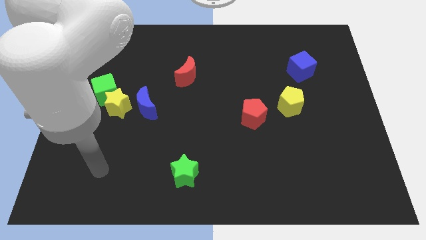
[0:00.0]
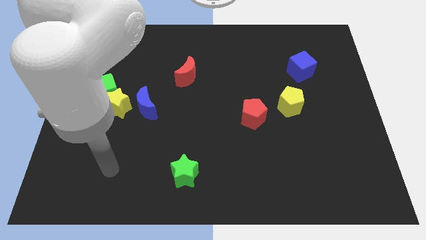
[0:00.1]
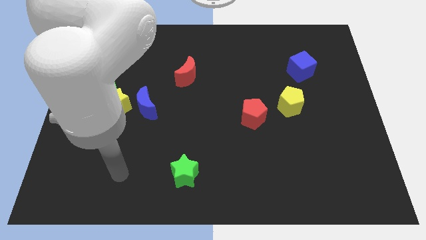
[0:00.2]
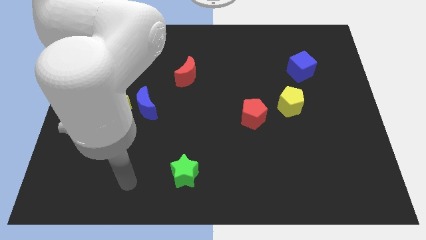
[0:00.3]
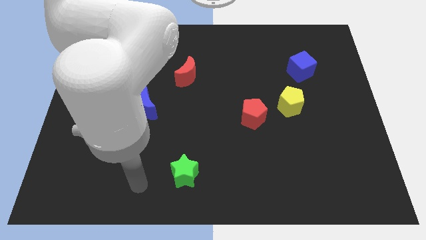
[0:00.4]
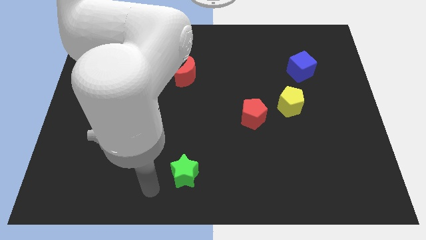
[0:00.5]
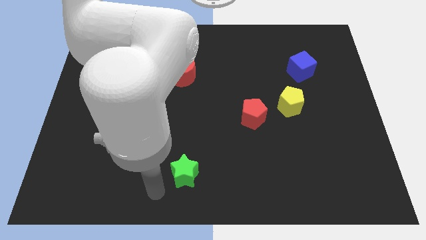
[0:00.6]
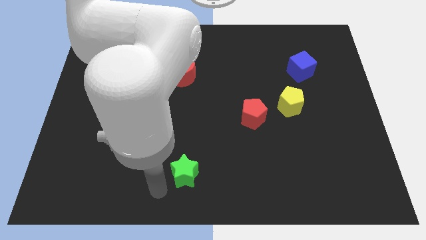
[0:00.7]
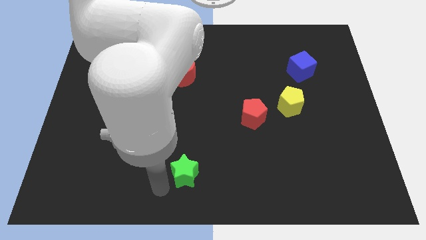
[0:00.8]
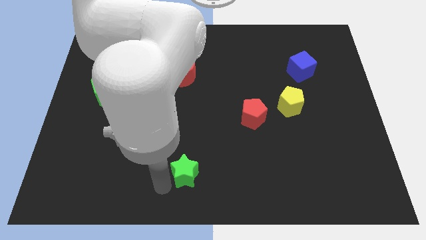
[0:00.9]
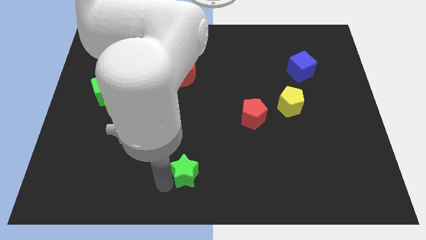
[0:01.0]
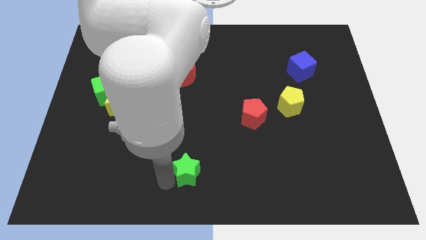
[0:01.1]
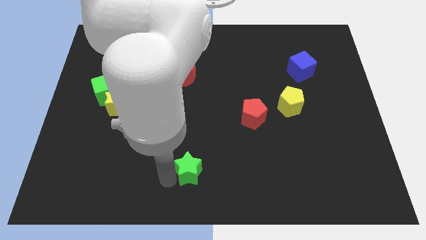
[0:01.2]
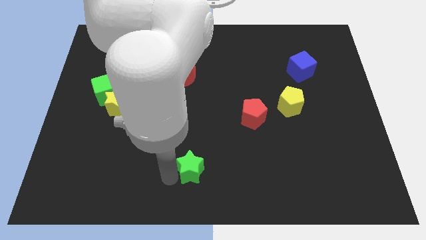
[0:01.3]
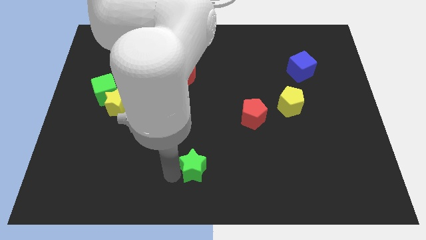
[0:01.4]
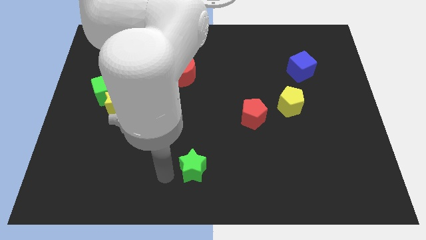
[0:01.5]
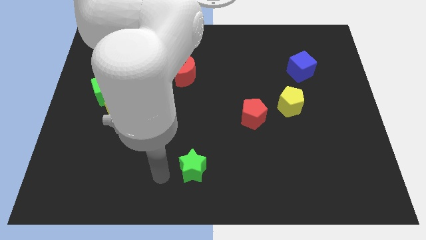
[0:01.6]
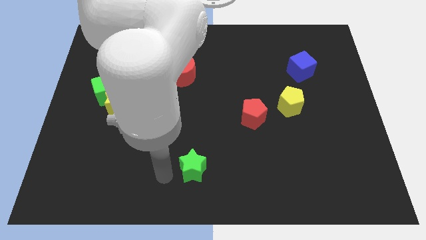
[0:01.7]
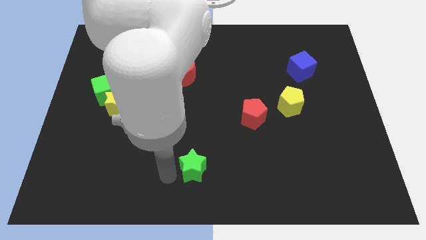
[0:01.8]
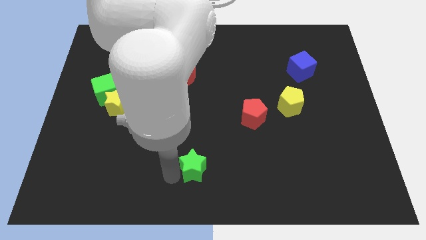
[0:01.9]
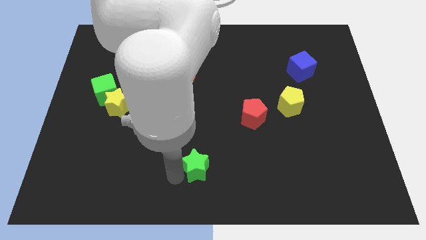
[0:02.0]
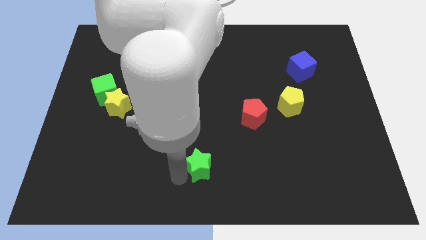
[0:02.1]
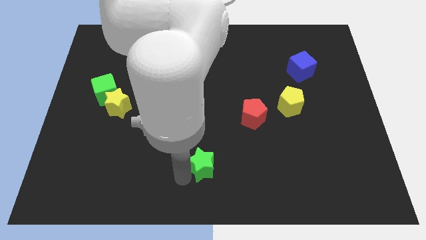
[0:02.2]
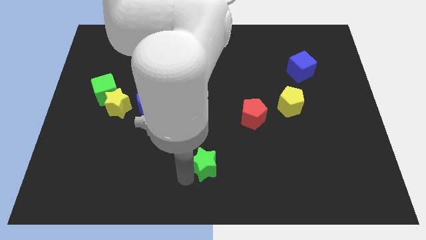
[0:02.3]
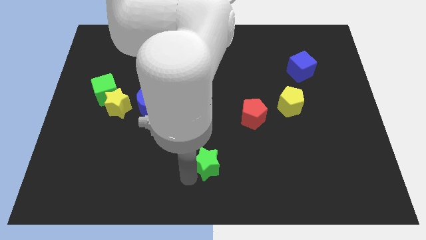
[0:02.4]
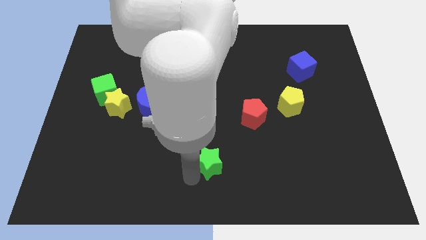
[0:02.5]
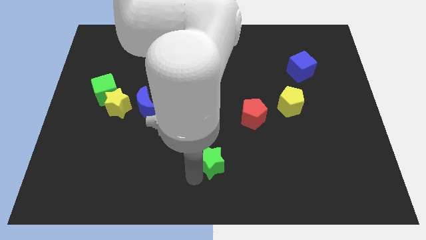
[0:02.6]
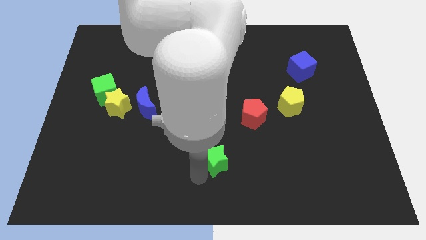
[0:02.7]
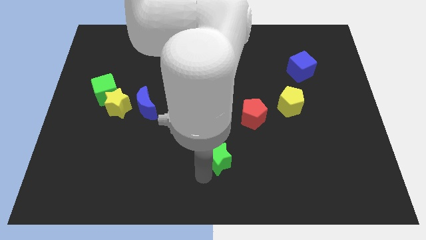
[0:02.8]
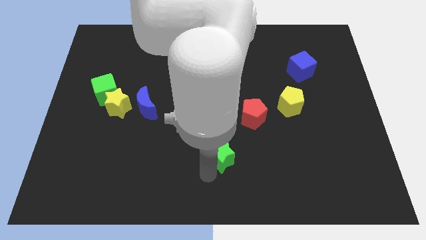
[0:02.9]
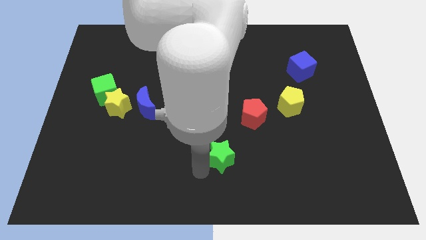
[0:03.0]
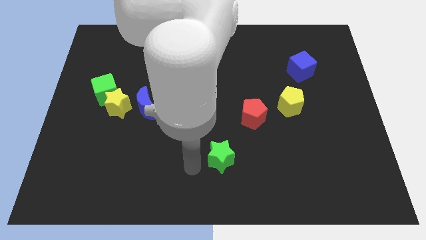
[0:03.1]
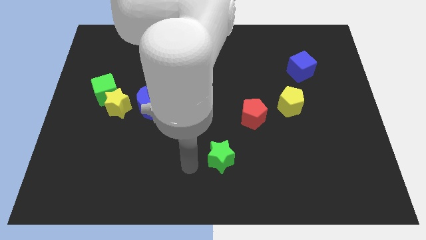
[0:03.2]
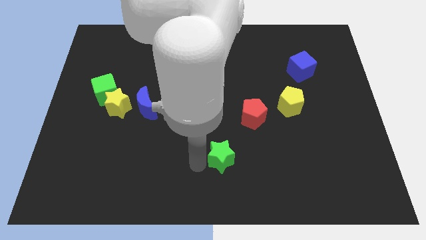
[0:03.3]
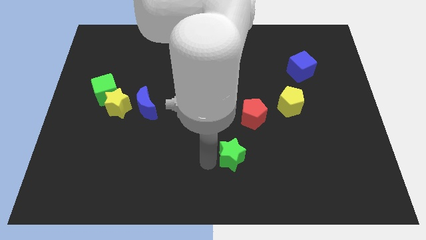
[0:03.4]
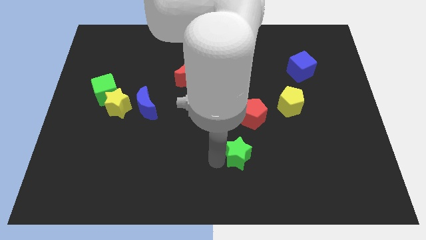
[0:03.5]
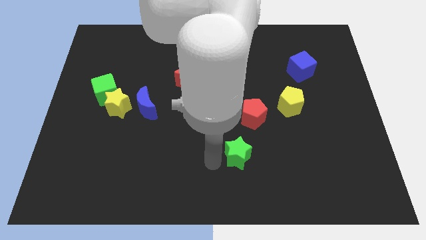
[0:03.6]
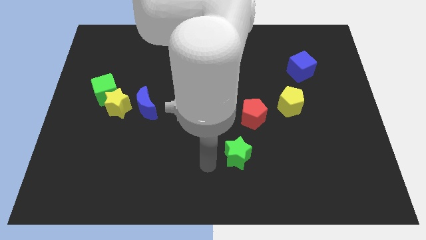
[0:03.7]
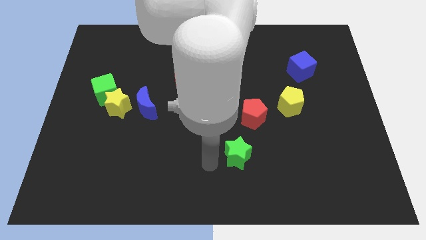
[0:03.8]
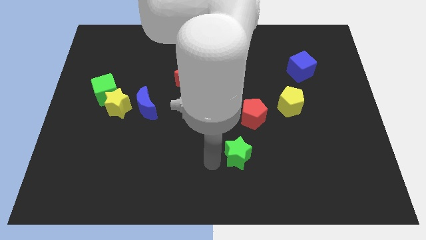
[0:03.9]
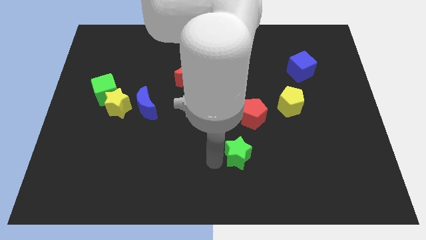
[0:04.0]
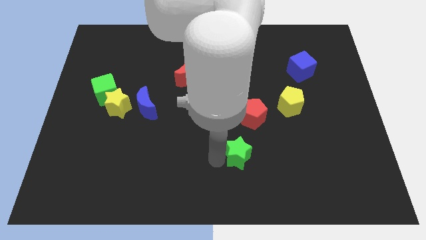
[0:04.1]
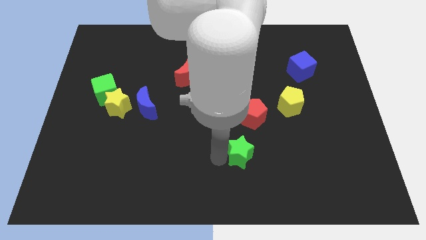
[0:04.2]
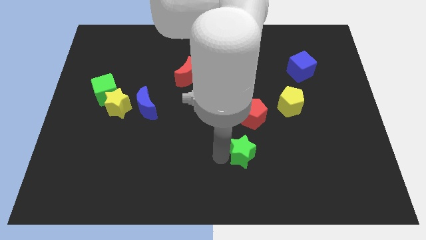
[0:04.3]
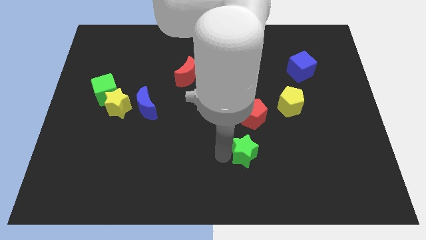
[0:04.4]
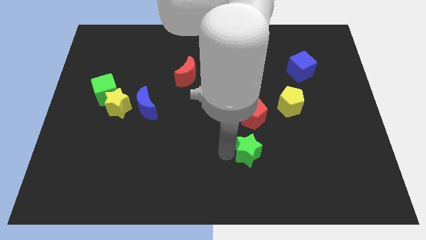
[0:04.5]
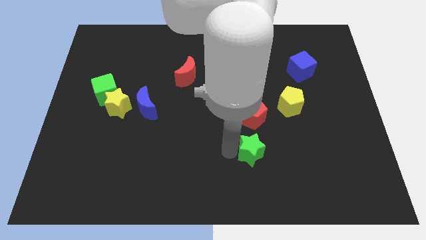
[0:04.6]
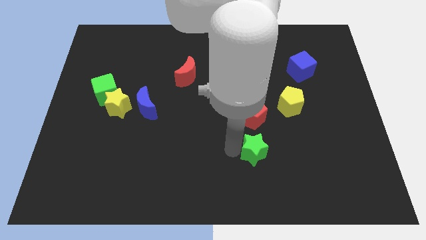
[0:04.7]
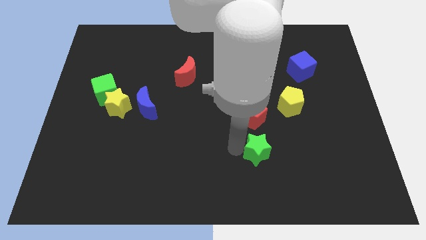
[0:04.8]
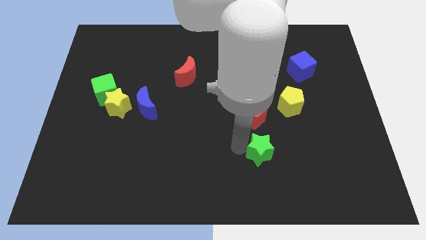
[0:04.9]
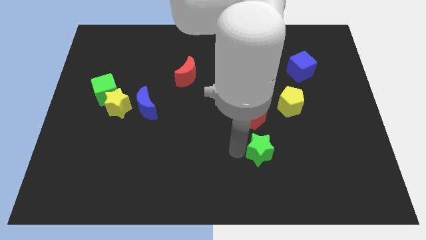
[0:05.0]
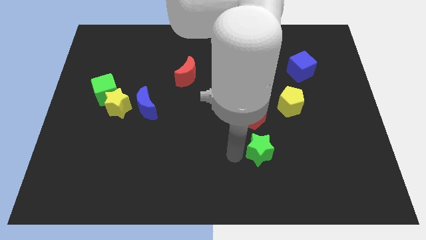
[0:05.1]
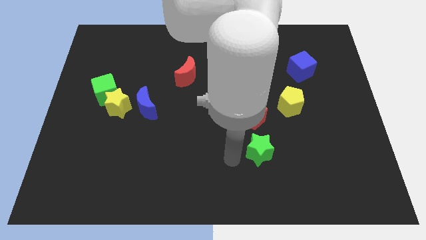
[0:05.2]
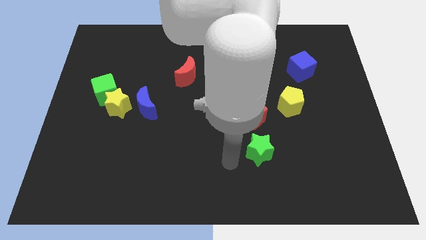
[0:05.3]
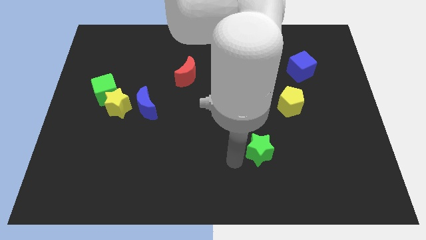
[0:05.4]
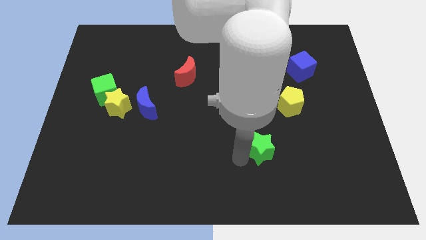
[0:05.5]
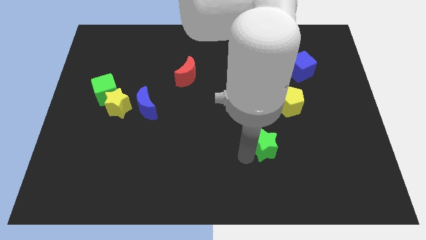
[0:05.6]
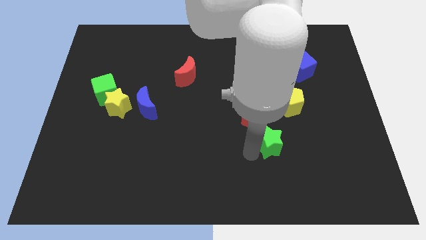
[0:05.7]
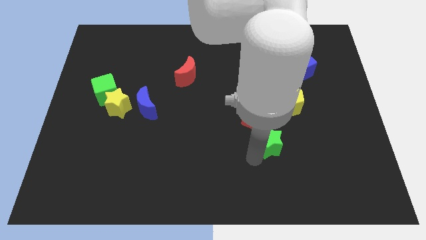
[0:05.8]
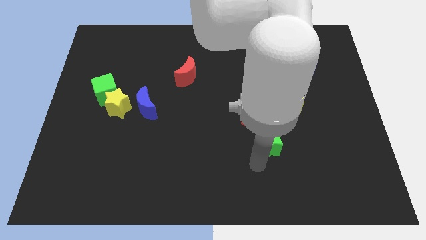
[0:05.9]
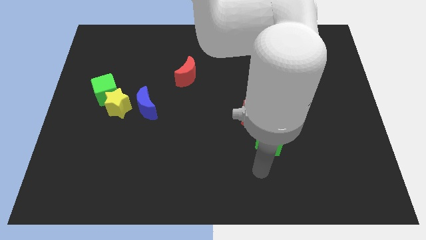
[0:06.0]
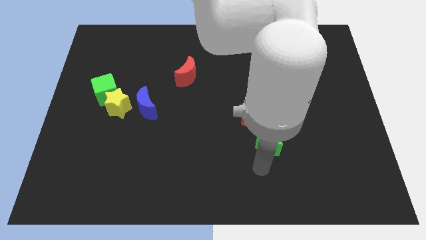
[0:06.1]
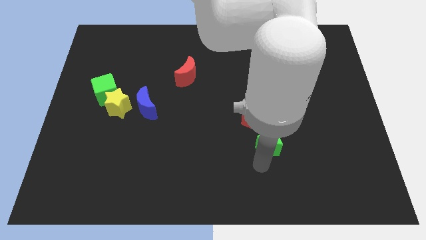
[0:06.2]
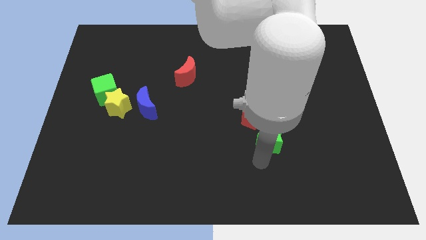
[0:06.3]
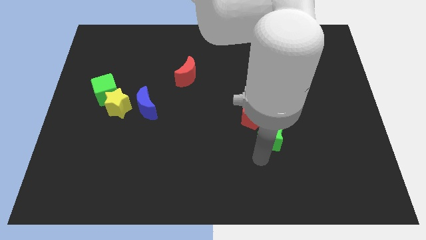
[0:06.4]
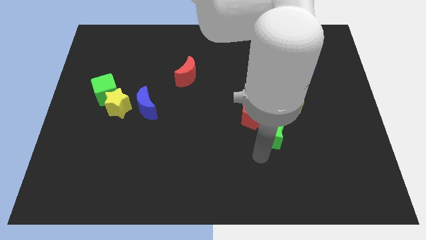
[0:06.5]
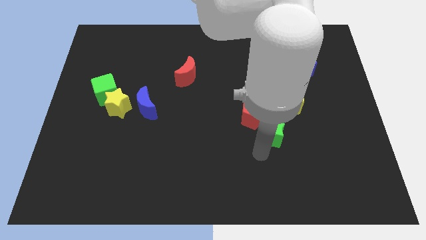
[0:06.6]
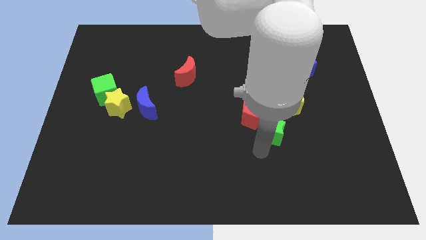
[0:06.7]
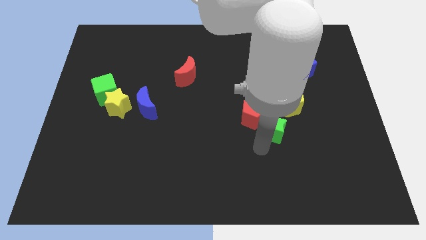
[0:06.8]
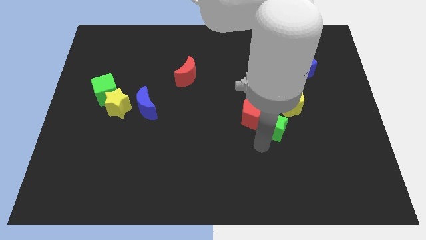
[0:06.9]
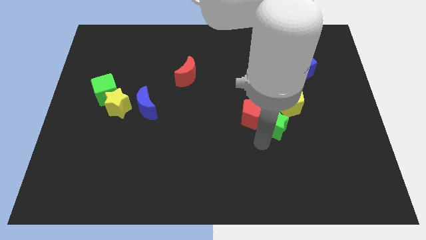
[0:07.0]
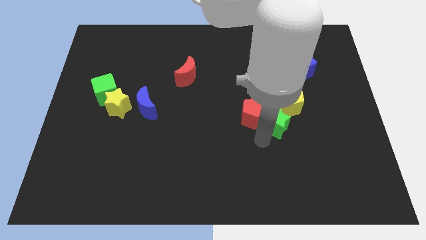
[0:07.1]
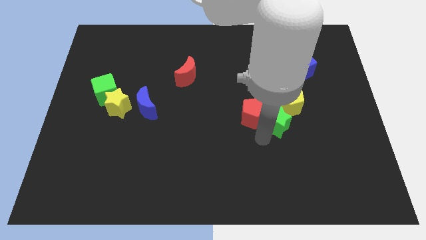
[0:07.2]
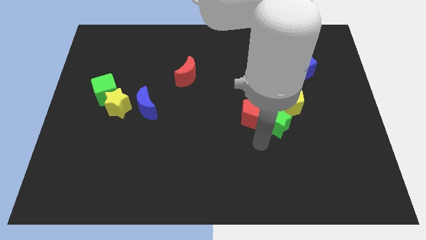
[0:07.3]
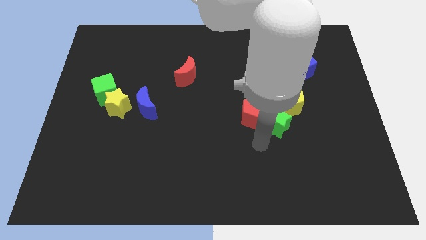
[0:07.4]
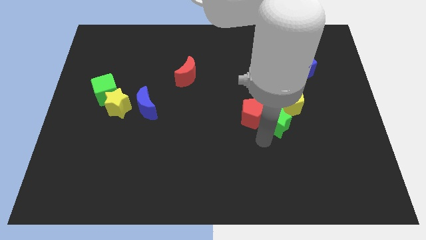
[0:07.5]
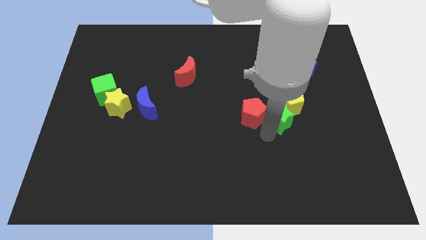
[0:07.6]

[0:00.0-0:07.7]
push the green star close to the yellow pentagon
